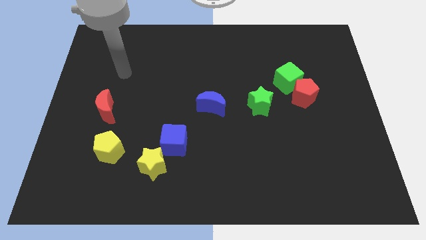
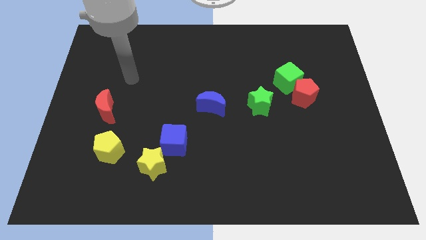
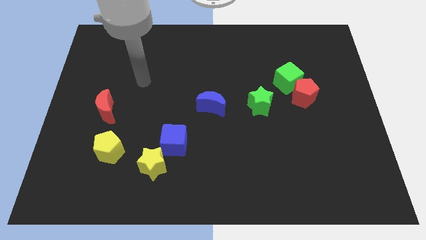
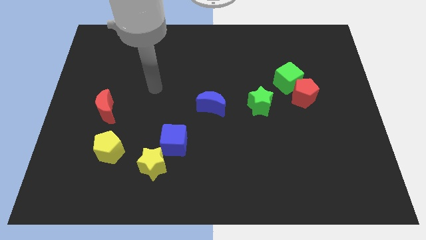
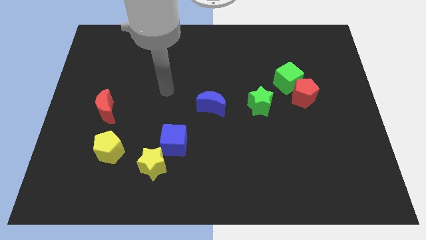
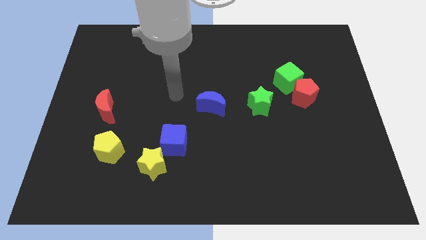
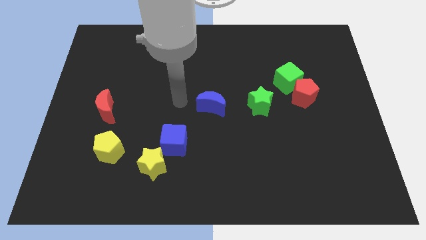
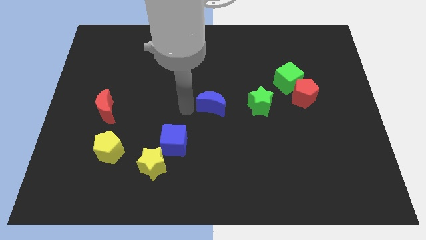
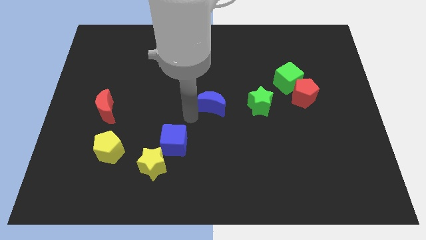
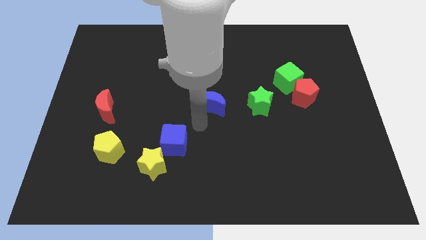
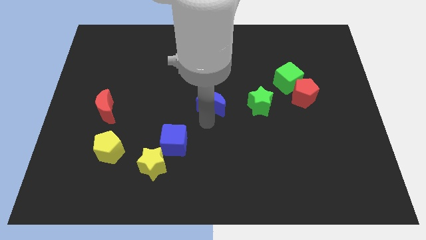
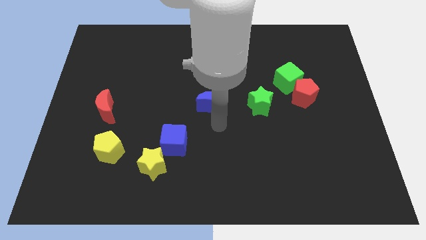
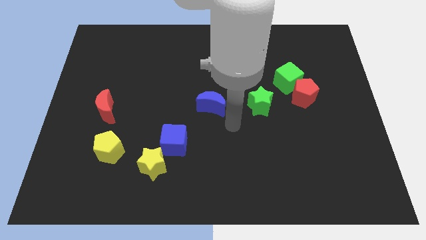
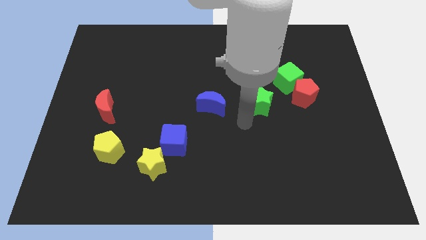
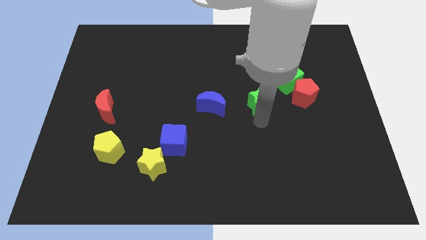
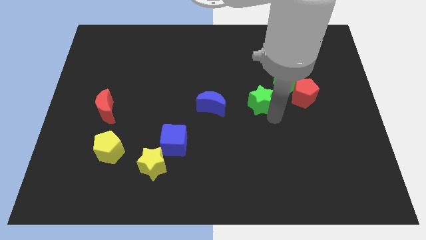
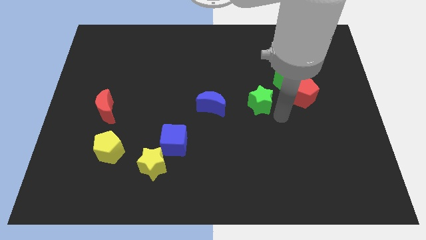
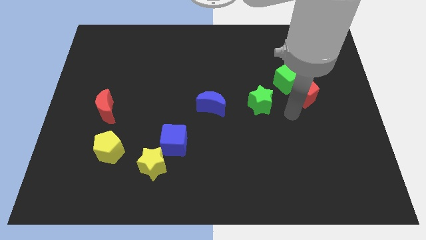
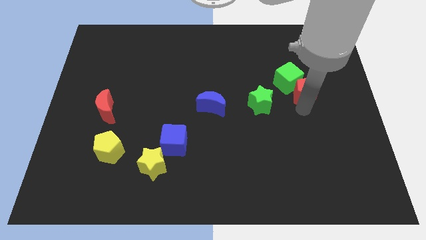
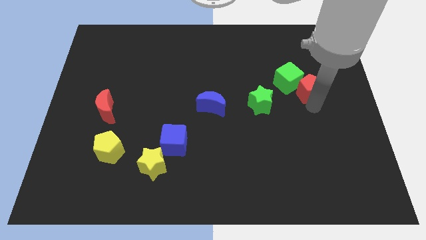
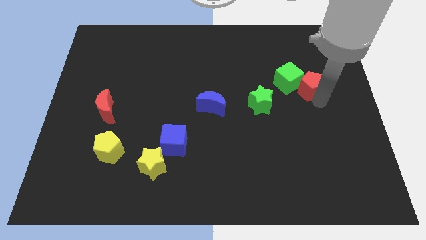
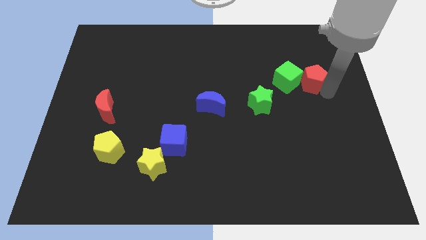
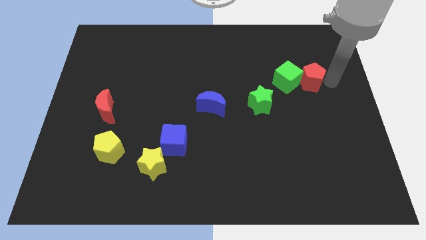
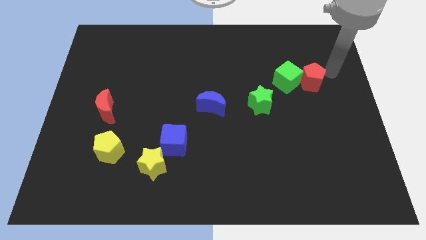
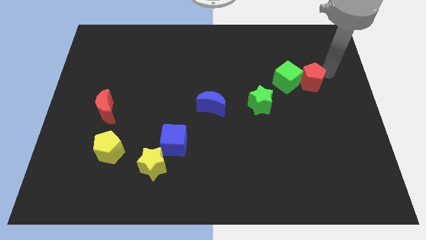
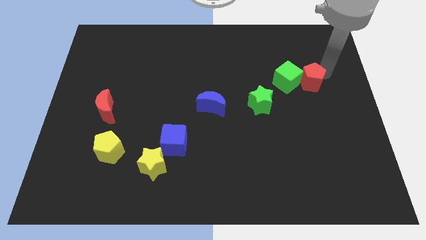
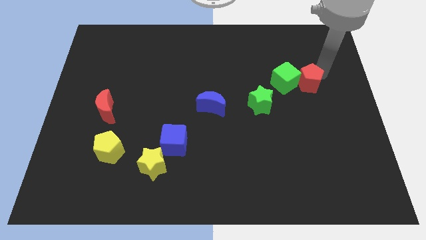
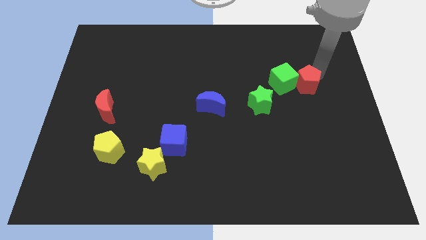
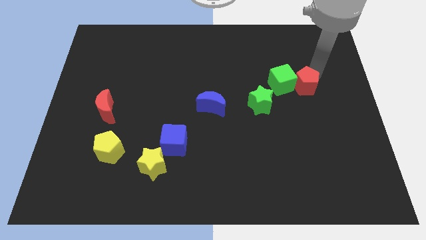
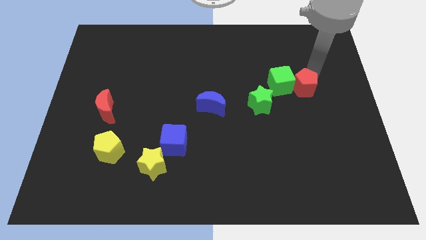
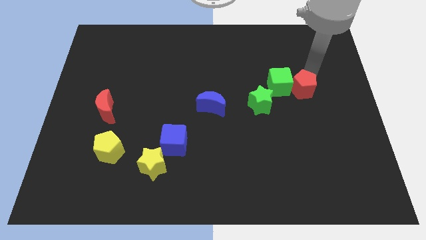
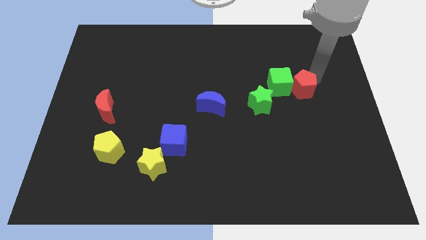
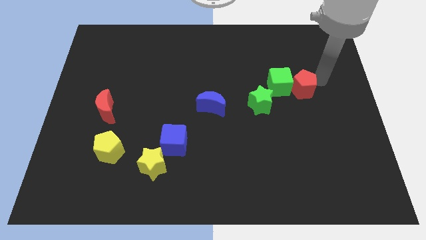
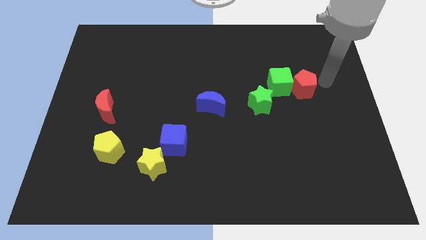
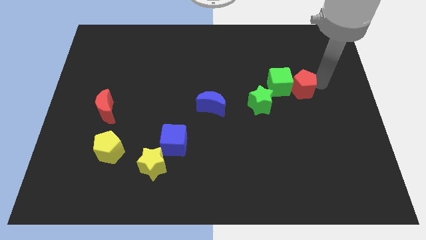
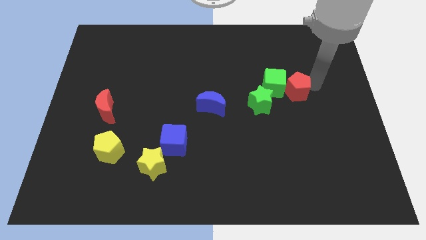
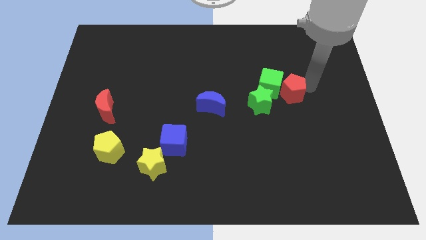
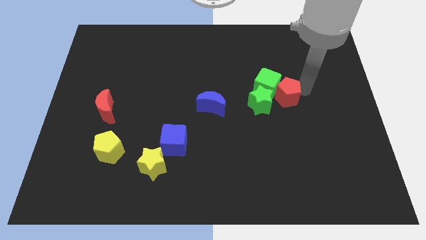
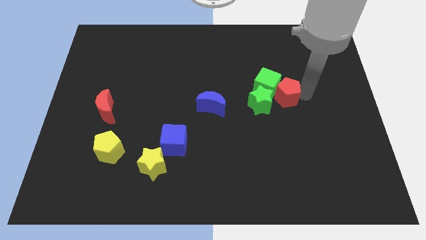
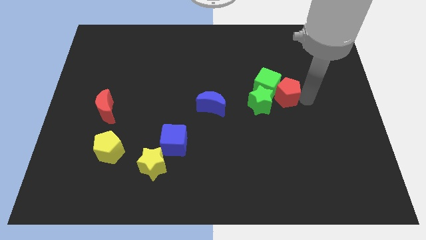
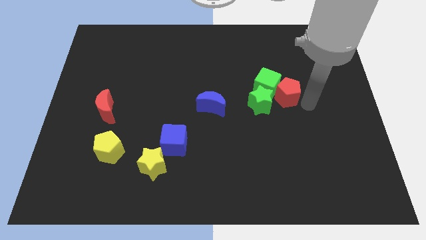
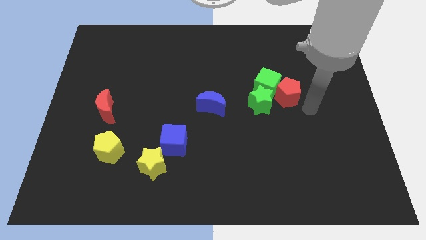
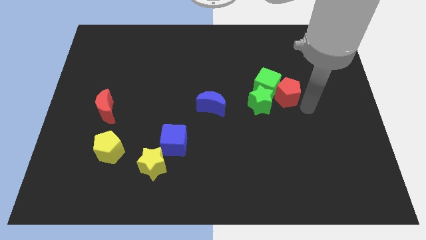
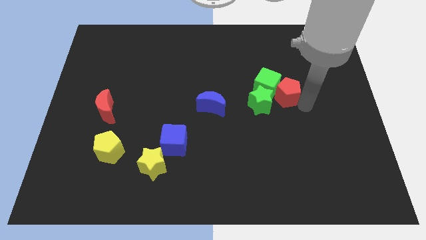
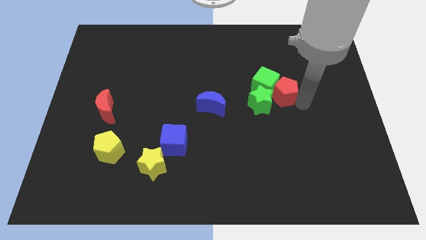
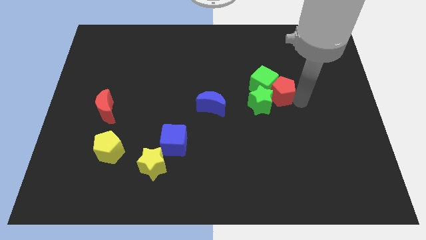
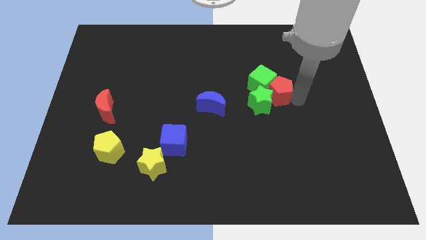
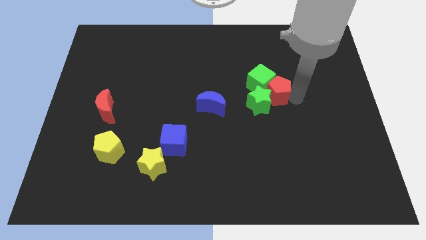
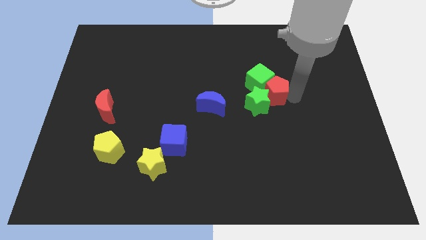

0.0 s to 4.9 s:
slide the red pentagon to the left a little

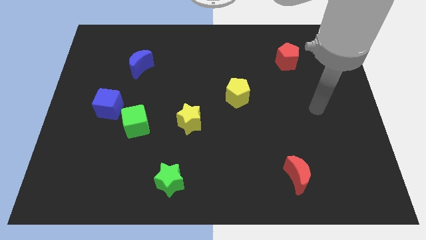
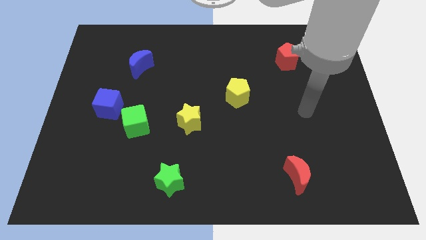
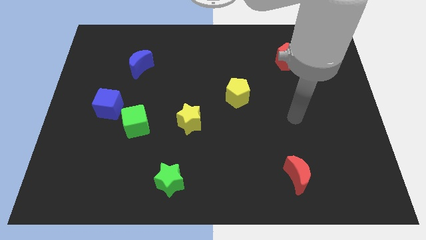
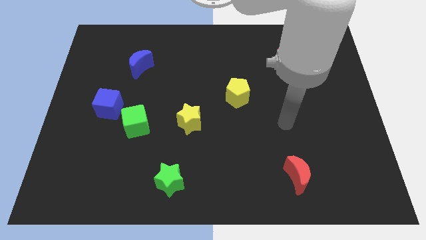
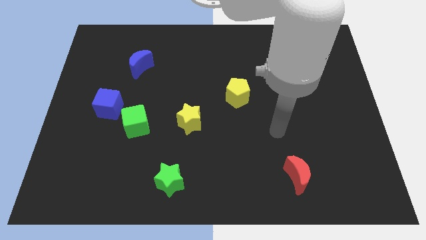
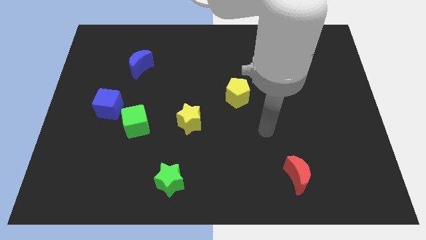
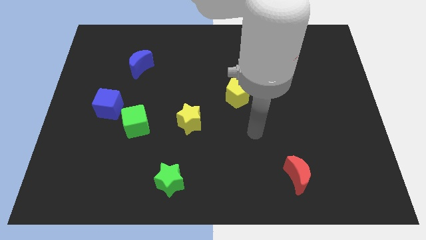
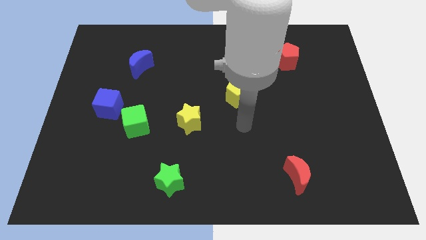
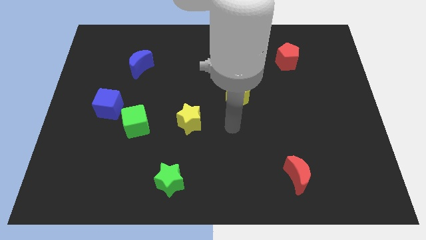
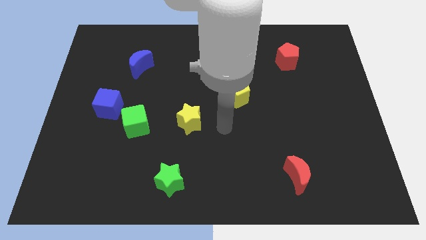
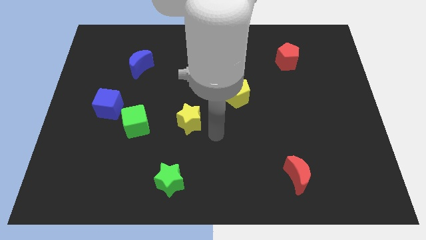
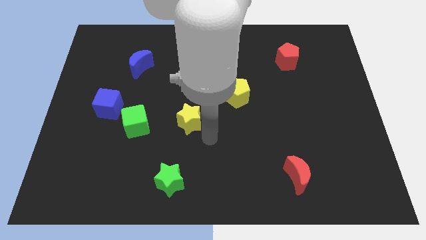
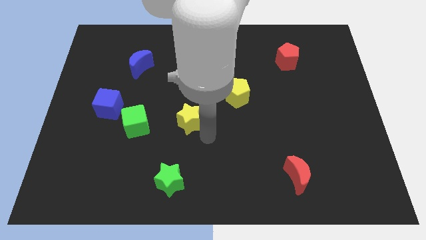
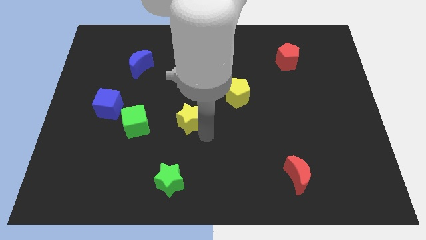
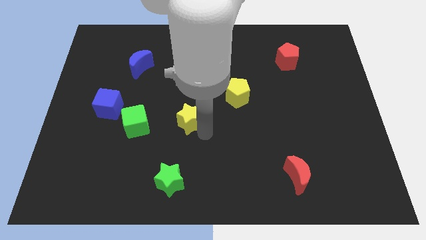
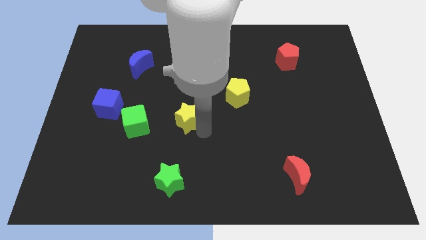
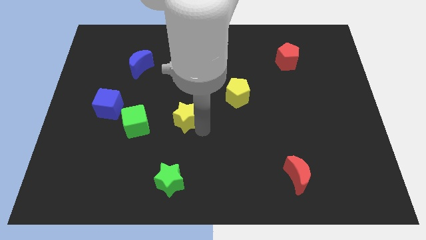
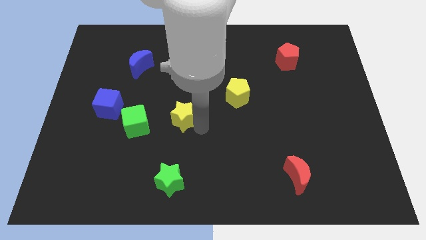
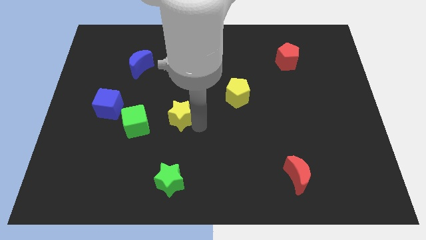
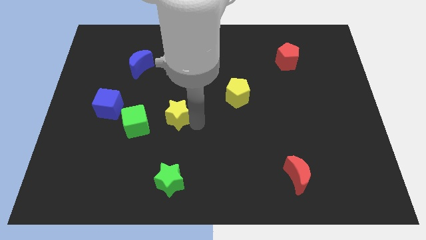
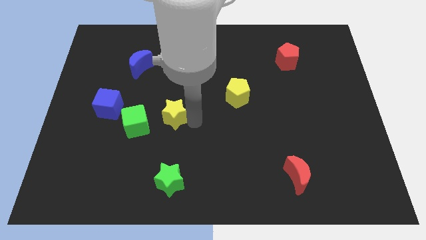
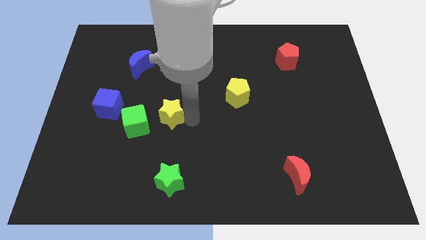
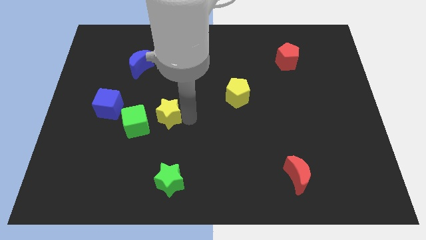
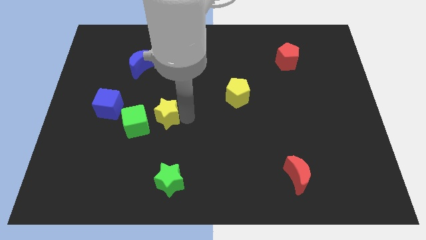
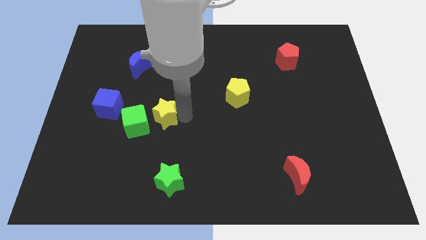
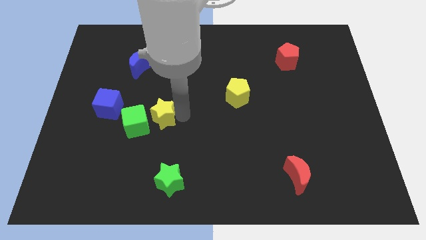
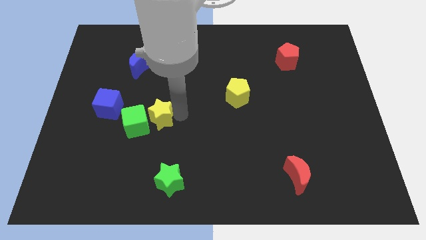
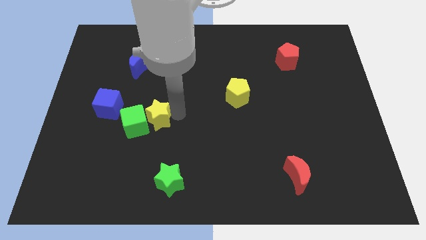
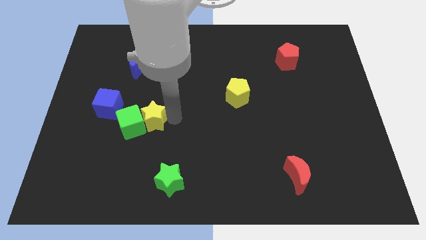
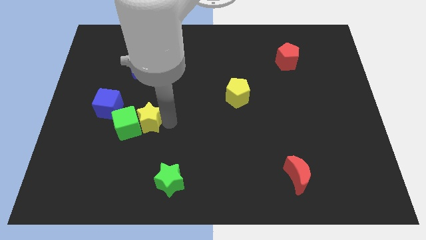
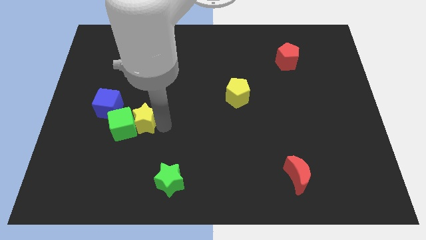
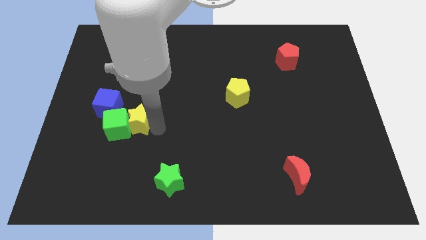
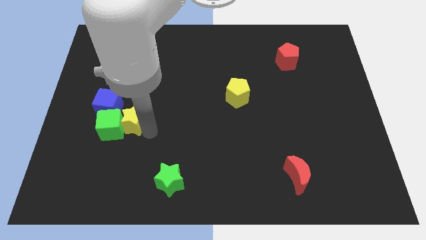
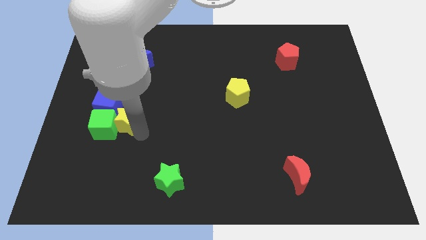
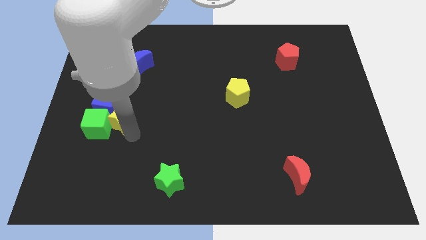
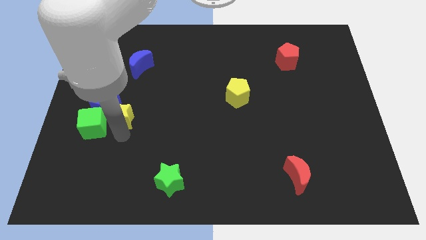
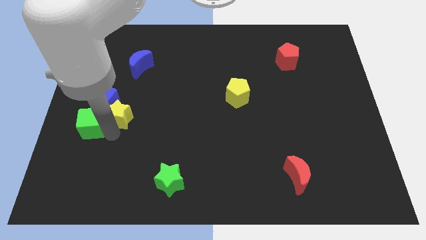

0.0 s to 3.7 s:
slightly slide the yellow star up and then left
